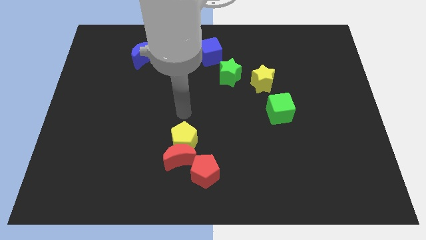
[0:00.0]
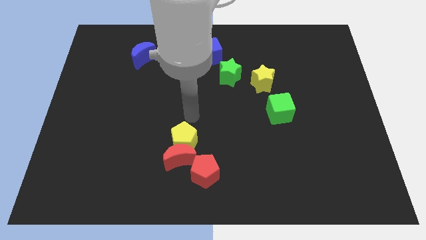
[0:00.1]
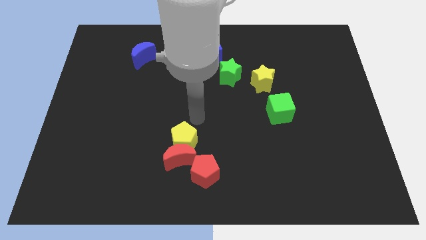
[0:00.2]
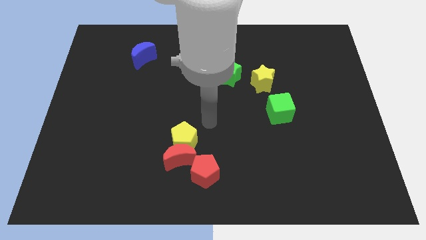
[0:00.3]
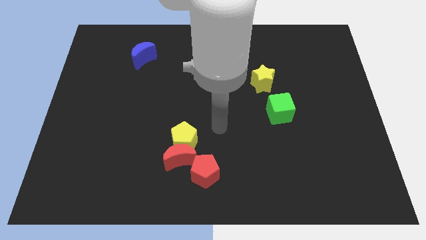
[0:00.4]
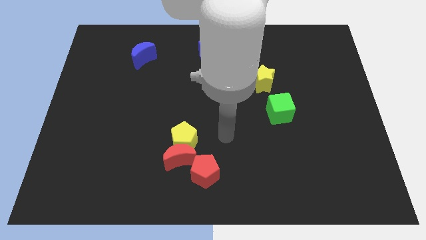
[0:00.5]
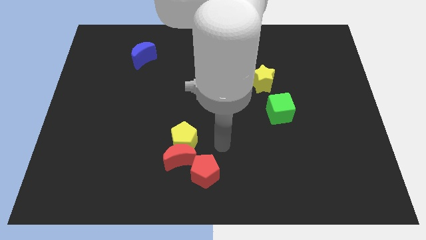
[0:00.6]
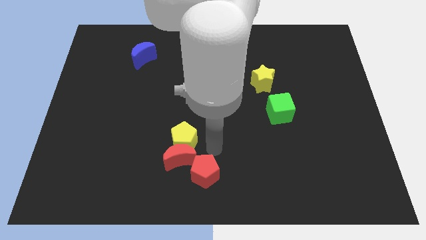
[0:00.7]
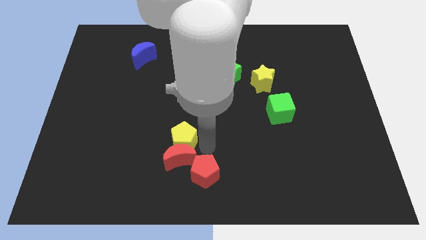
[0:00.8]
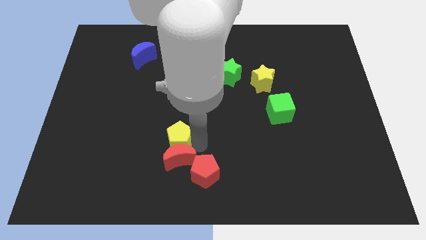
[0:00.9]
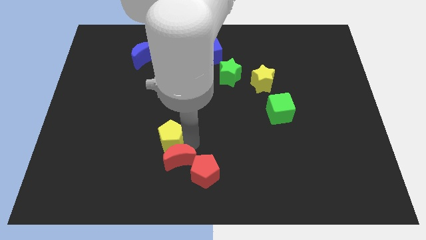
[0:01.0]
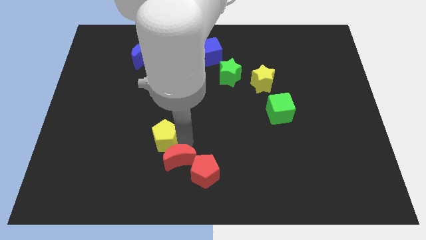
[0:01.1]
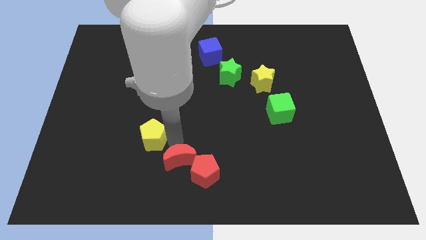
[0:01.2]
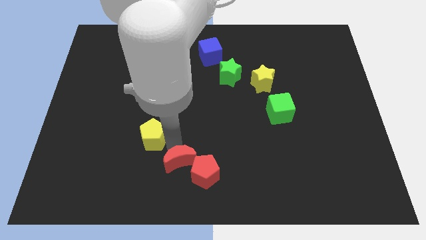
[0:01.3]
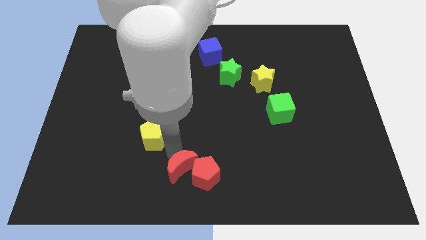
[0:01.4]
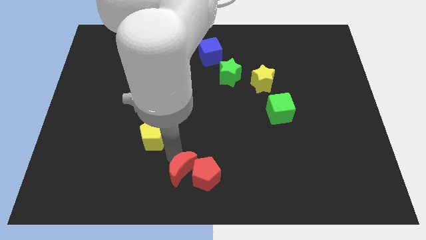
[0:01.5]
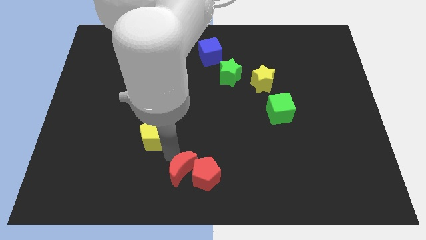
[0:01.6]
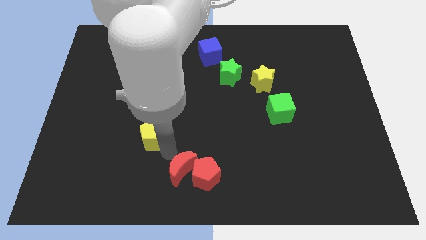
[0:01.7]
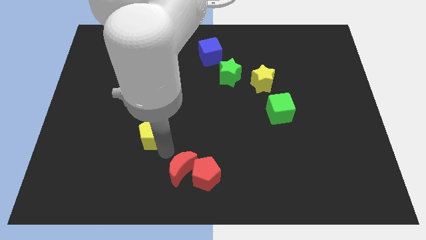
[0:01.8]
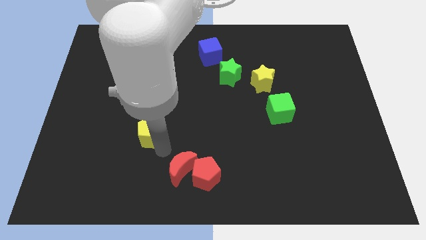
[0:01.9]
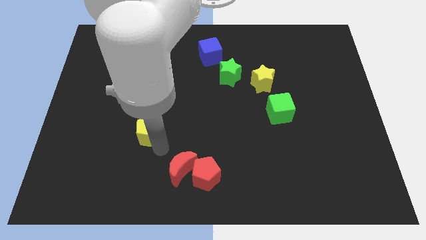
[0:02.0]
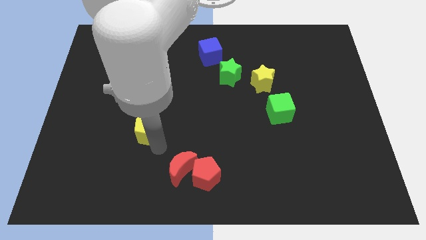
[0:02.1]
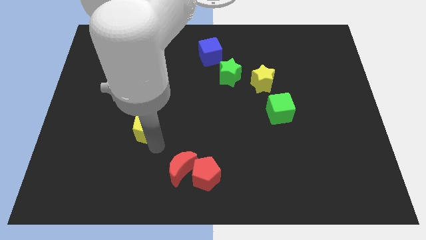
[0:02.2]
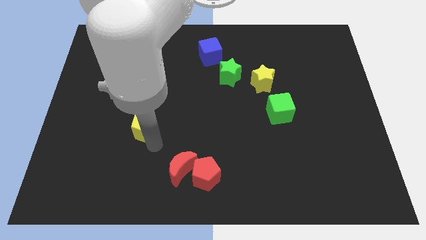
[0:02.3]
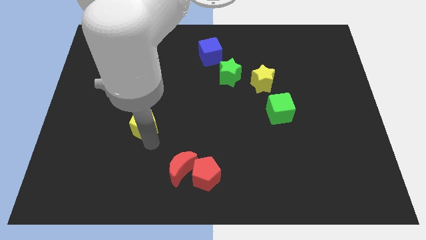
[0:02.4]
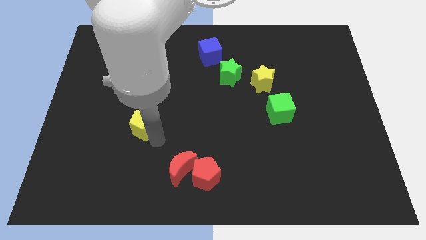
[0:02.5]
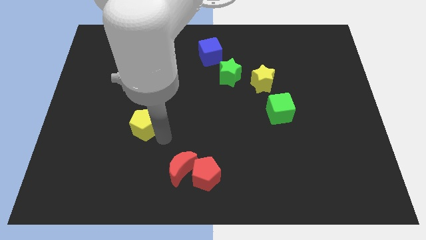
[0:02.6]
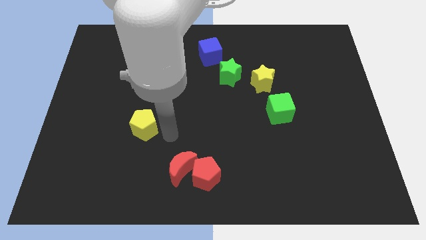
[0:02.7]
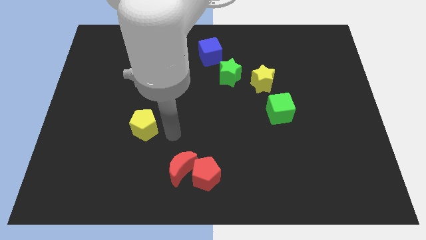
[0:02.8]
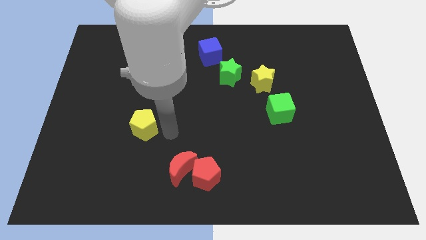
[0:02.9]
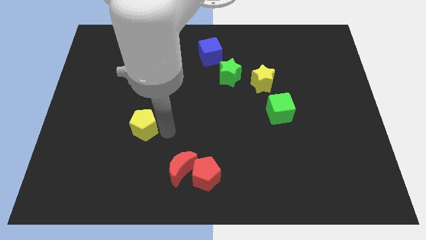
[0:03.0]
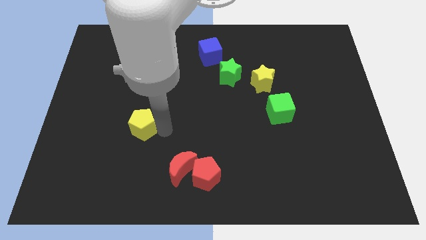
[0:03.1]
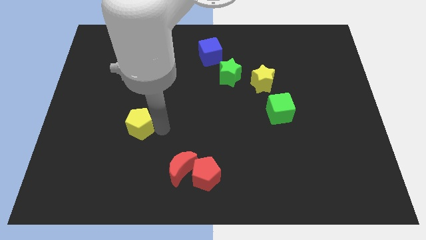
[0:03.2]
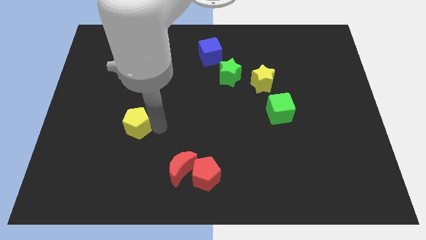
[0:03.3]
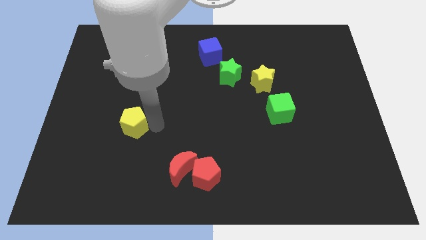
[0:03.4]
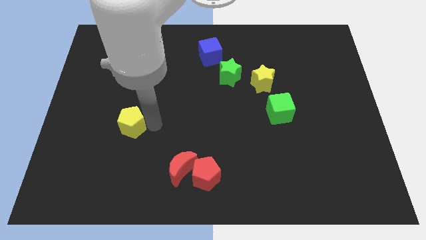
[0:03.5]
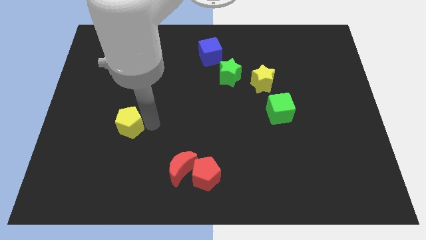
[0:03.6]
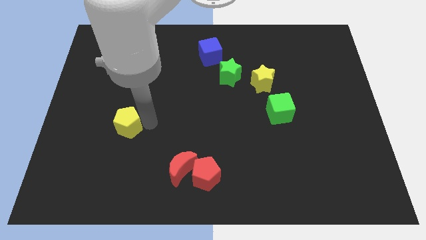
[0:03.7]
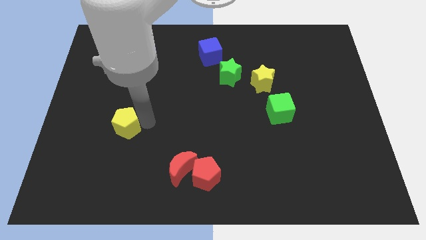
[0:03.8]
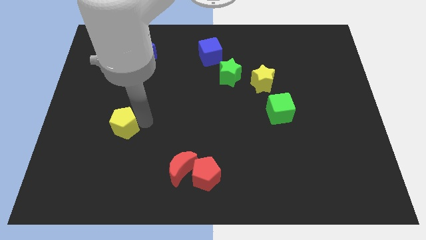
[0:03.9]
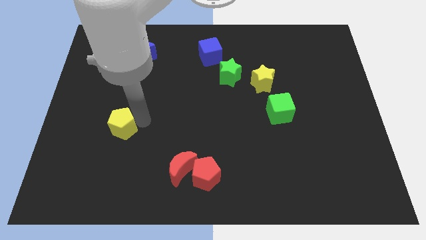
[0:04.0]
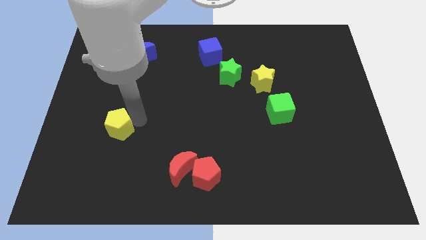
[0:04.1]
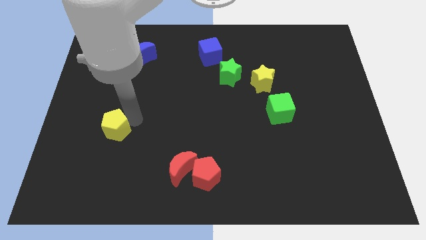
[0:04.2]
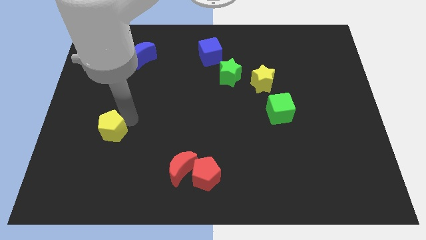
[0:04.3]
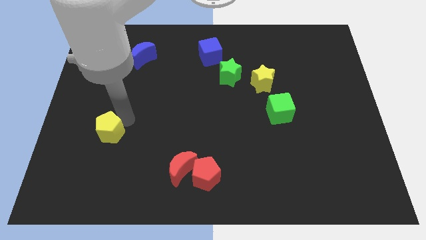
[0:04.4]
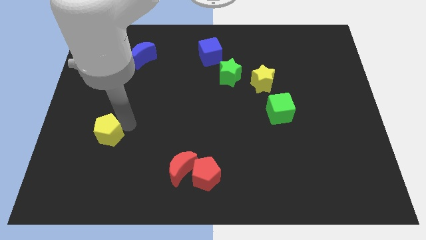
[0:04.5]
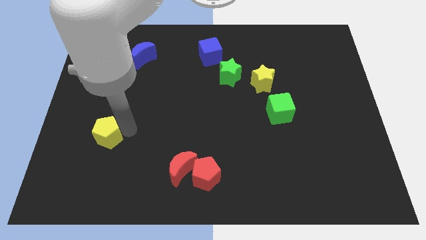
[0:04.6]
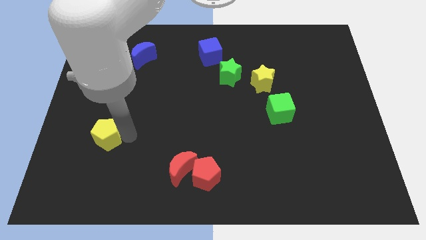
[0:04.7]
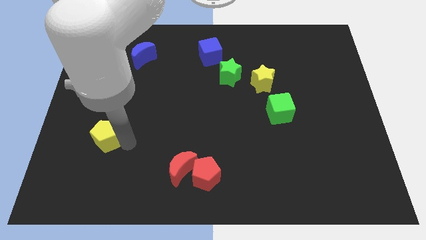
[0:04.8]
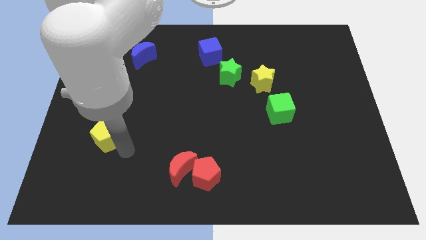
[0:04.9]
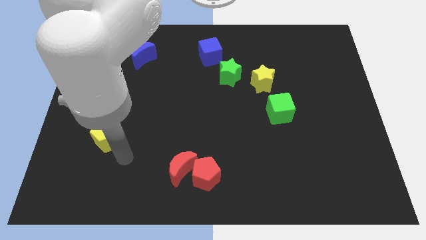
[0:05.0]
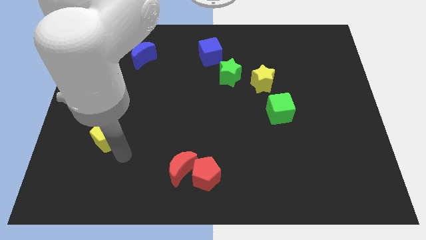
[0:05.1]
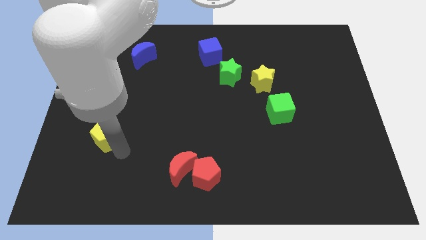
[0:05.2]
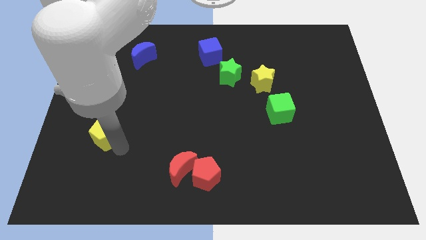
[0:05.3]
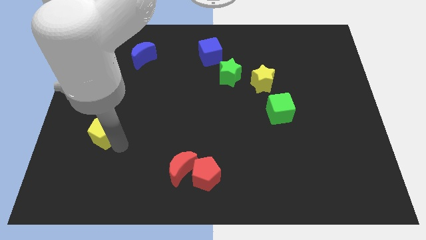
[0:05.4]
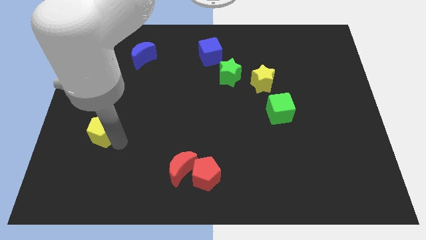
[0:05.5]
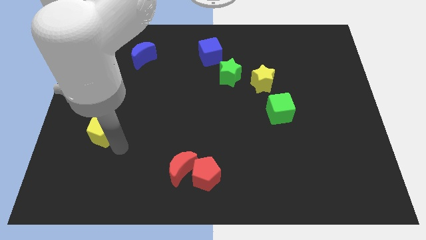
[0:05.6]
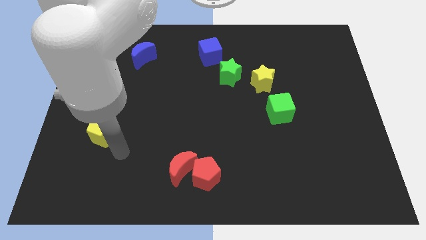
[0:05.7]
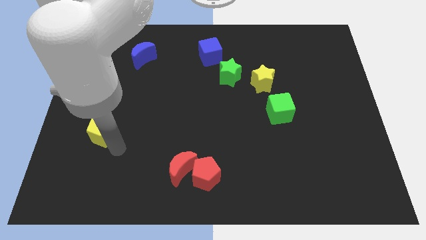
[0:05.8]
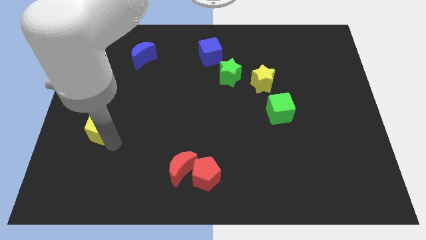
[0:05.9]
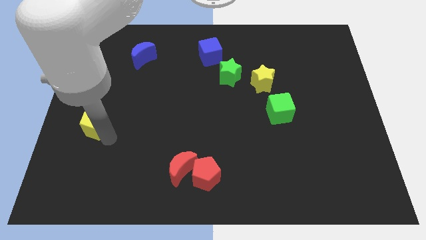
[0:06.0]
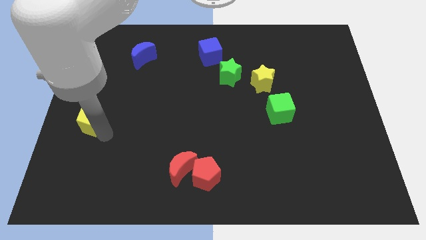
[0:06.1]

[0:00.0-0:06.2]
slide the yellow pentagon to the center left
